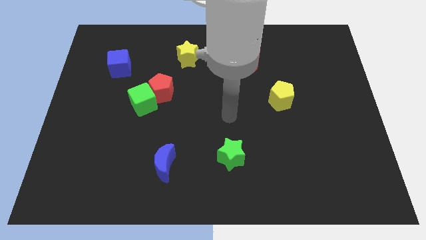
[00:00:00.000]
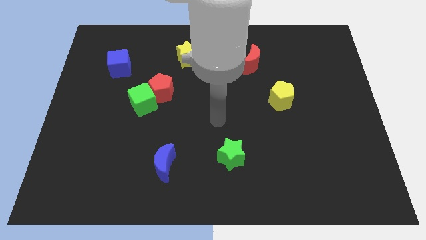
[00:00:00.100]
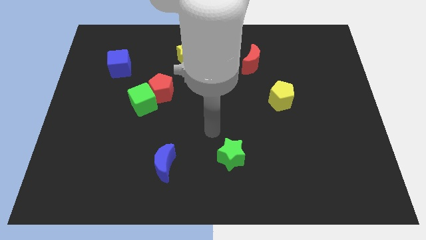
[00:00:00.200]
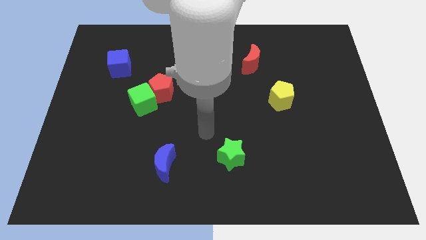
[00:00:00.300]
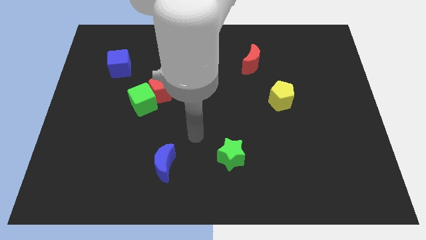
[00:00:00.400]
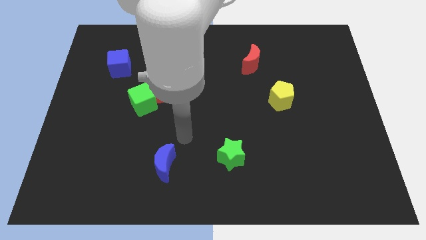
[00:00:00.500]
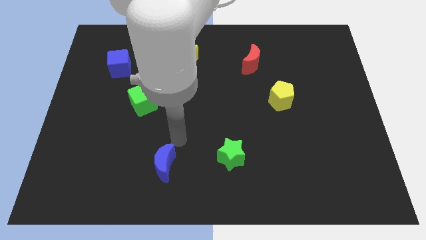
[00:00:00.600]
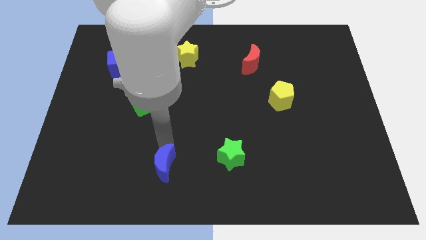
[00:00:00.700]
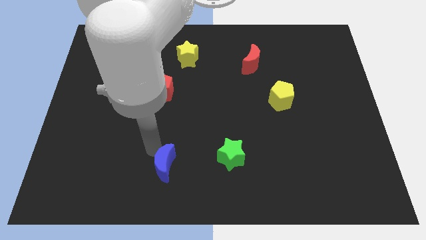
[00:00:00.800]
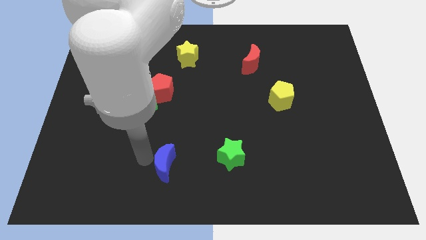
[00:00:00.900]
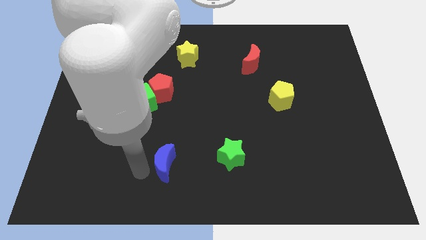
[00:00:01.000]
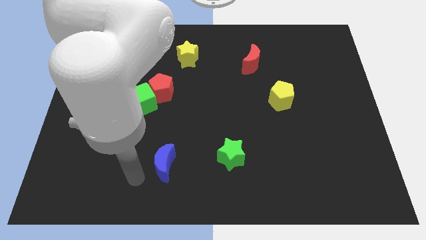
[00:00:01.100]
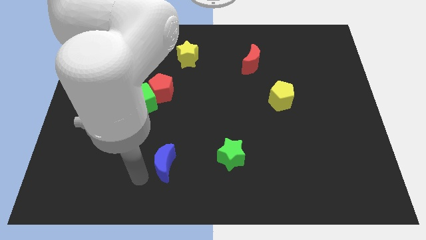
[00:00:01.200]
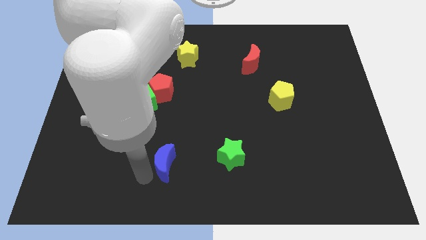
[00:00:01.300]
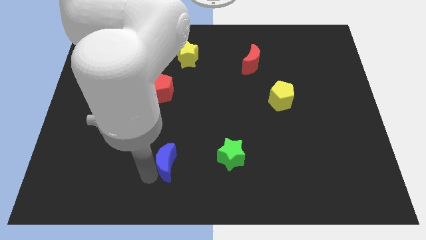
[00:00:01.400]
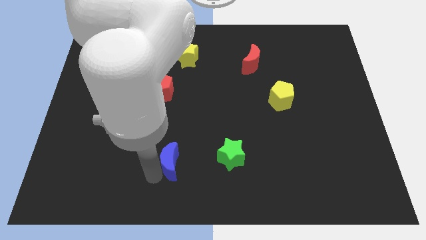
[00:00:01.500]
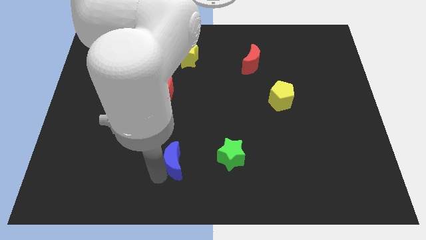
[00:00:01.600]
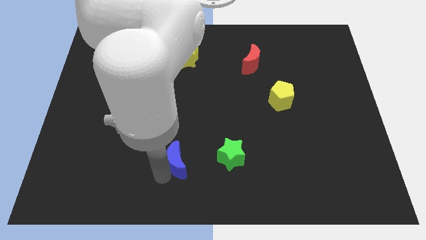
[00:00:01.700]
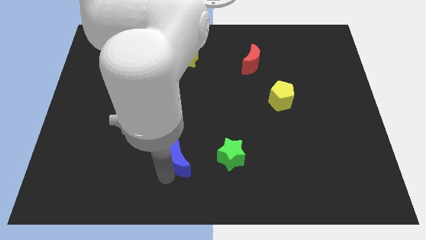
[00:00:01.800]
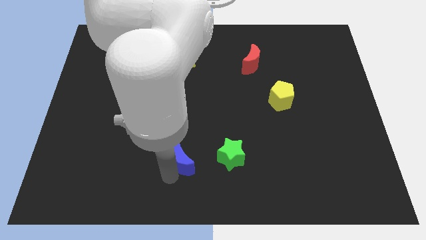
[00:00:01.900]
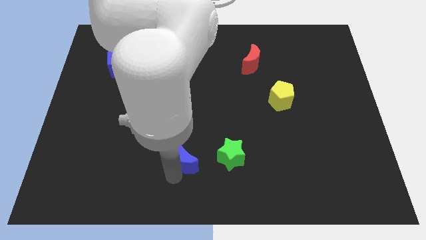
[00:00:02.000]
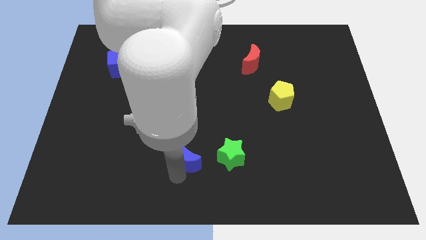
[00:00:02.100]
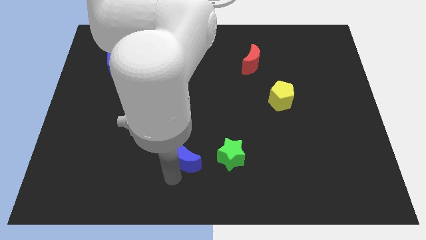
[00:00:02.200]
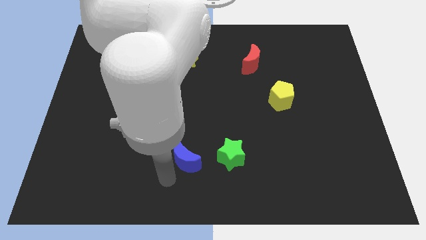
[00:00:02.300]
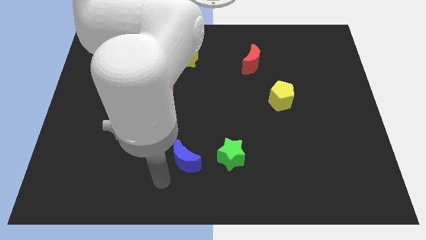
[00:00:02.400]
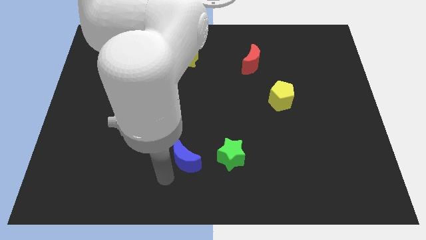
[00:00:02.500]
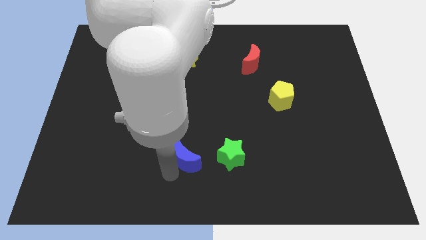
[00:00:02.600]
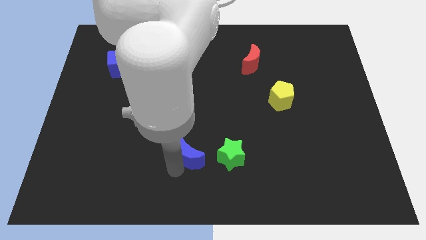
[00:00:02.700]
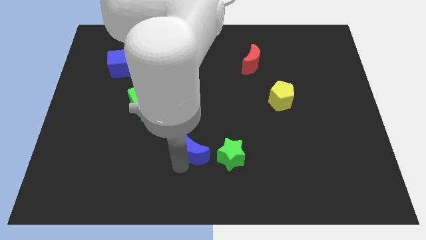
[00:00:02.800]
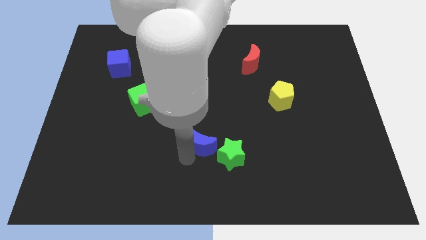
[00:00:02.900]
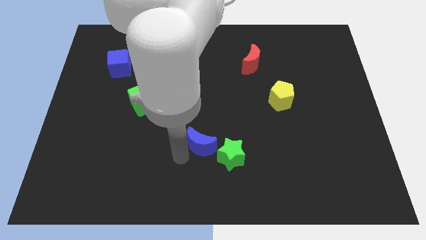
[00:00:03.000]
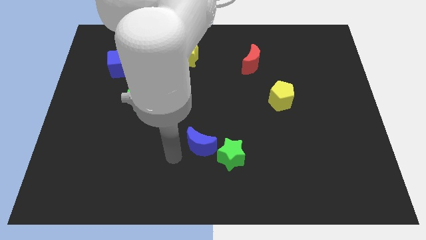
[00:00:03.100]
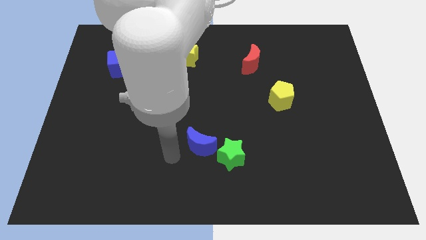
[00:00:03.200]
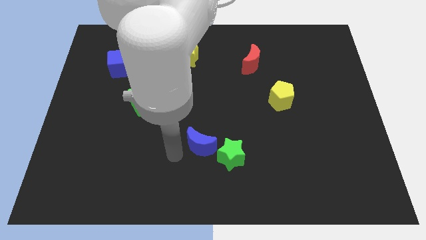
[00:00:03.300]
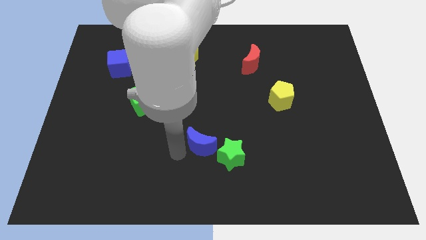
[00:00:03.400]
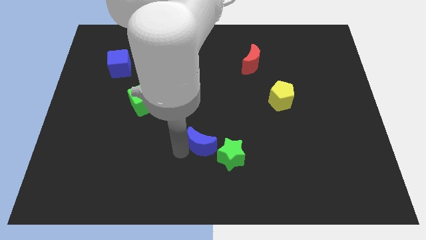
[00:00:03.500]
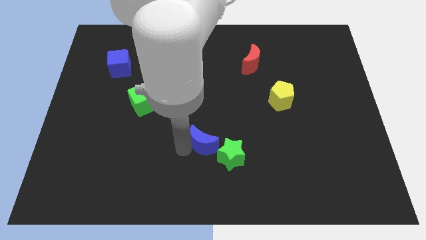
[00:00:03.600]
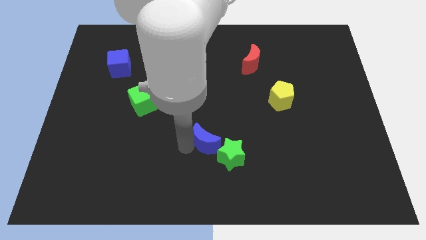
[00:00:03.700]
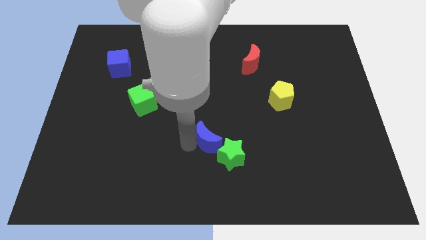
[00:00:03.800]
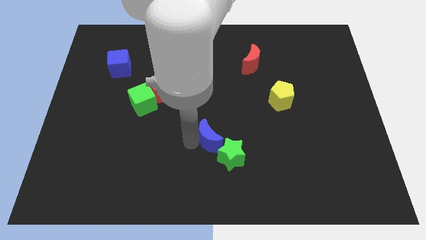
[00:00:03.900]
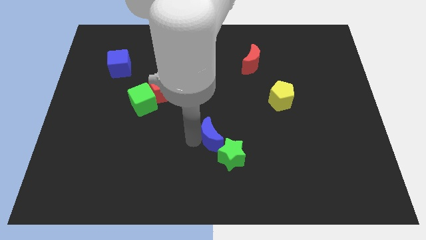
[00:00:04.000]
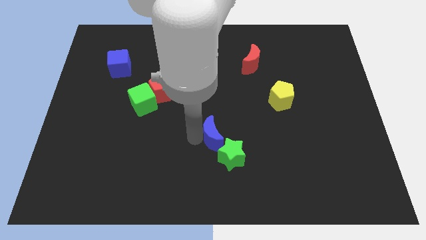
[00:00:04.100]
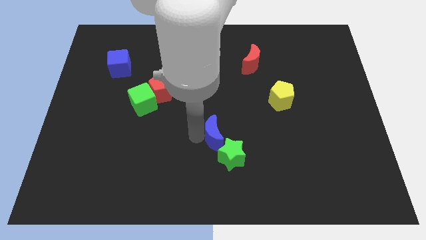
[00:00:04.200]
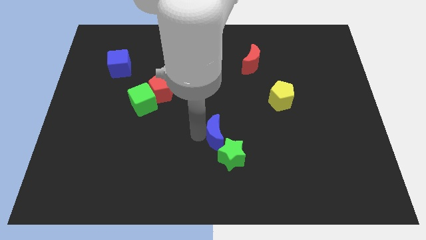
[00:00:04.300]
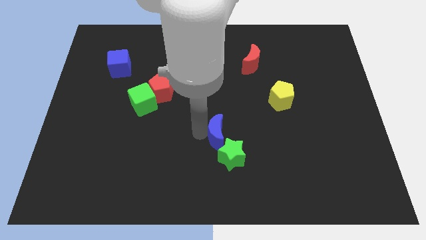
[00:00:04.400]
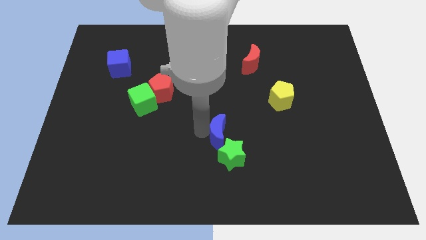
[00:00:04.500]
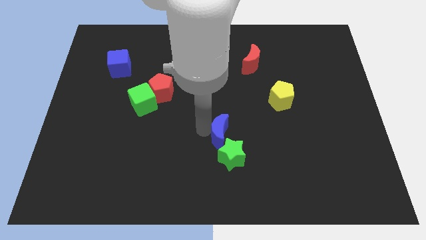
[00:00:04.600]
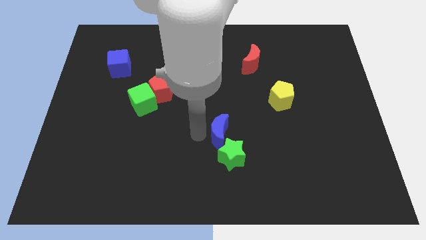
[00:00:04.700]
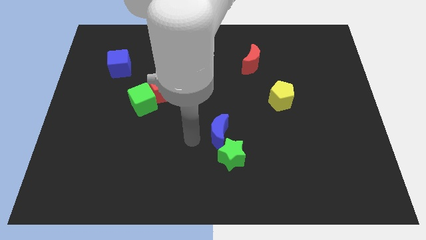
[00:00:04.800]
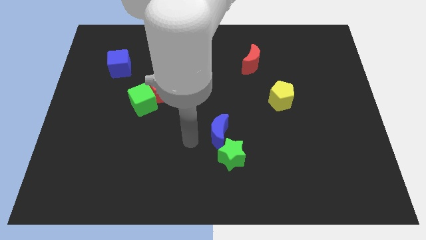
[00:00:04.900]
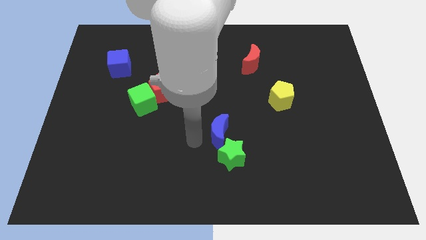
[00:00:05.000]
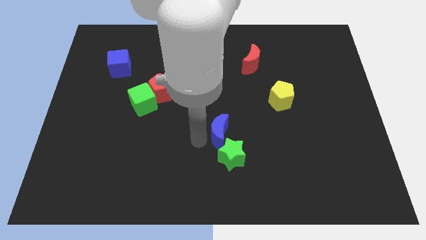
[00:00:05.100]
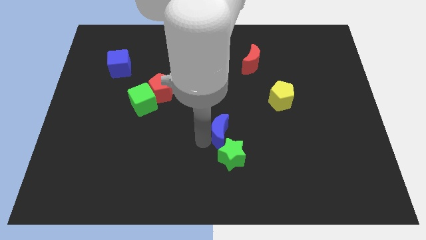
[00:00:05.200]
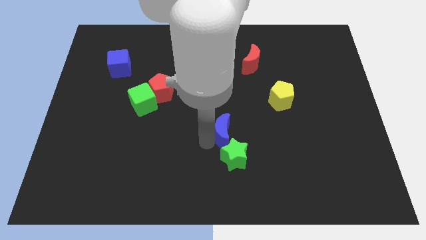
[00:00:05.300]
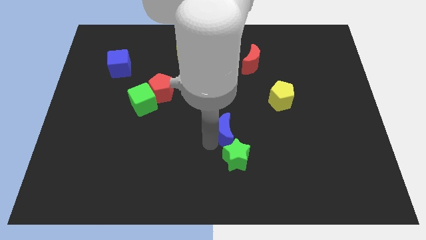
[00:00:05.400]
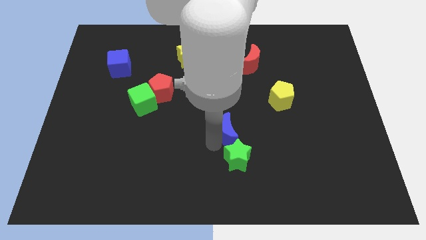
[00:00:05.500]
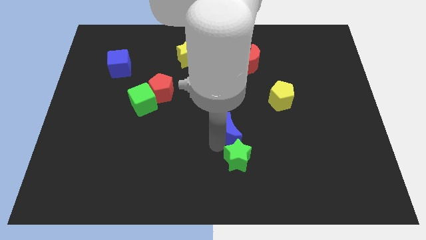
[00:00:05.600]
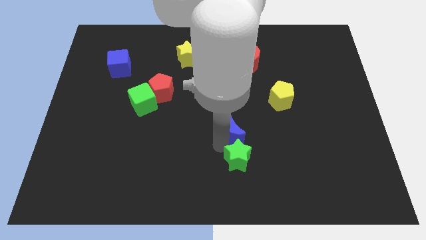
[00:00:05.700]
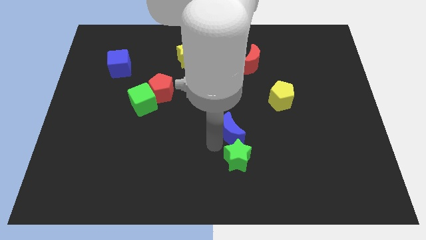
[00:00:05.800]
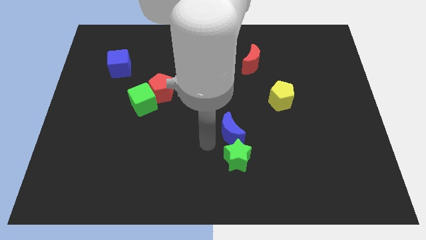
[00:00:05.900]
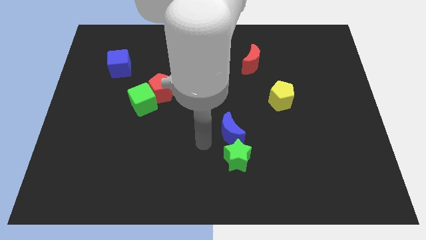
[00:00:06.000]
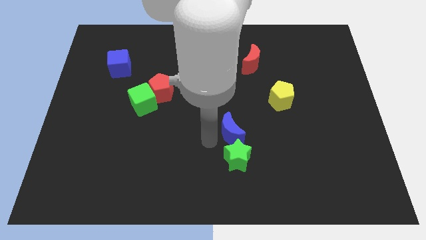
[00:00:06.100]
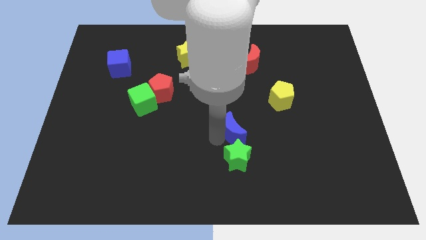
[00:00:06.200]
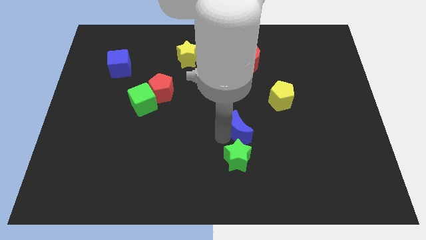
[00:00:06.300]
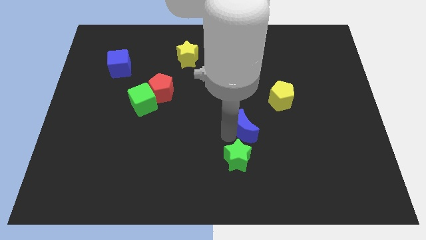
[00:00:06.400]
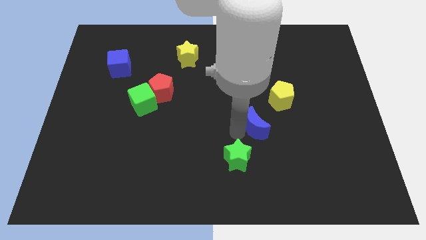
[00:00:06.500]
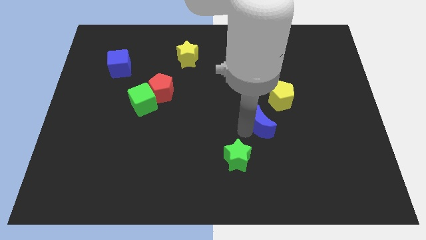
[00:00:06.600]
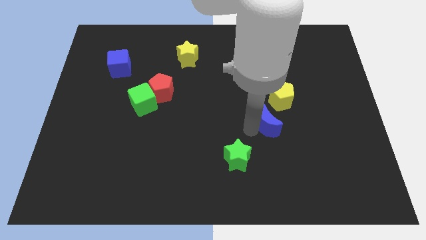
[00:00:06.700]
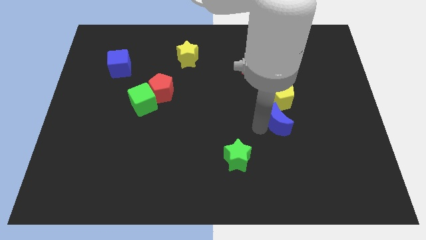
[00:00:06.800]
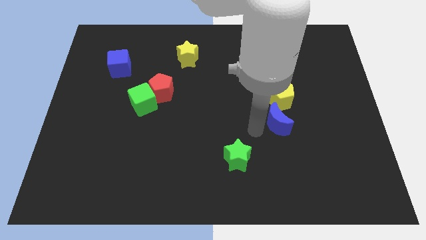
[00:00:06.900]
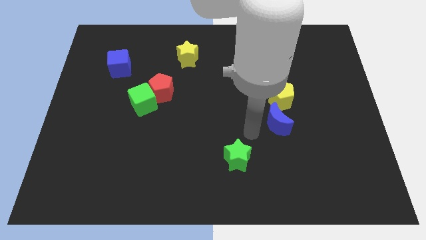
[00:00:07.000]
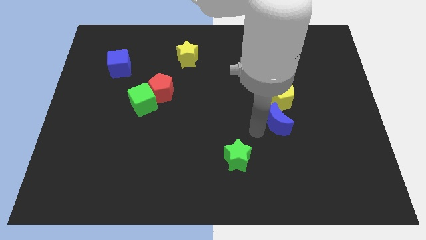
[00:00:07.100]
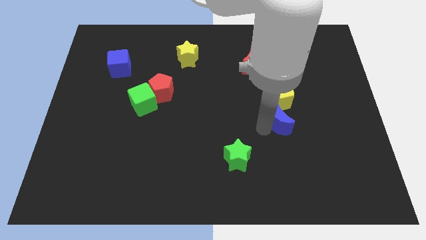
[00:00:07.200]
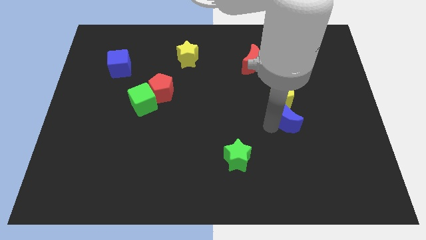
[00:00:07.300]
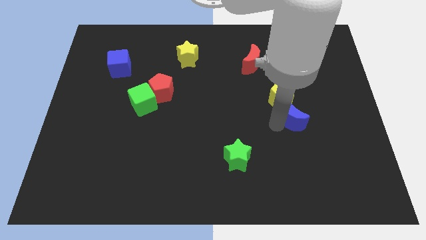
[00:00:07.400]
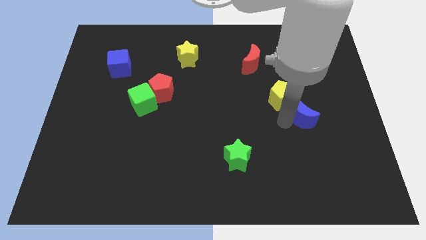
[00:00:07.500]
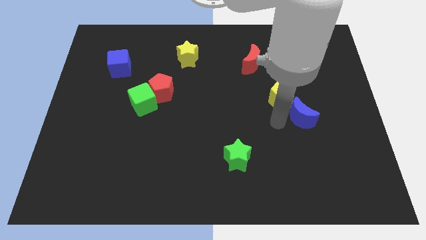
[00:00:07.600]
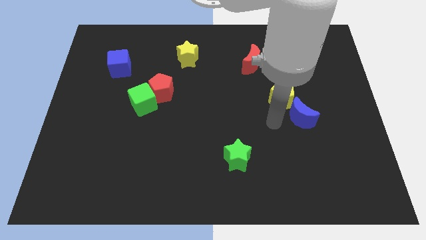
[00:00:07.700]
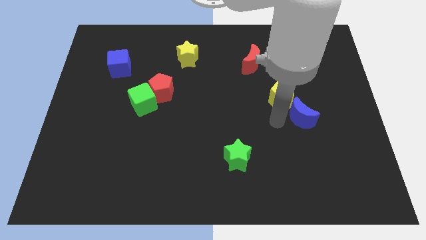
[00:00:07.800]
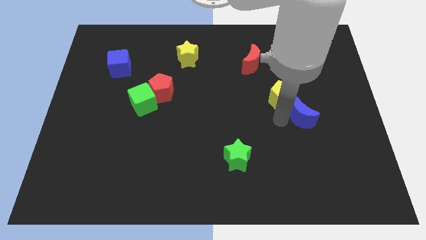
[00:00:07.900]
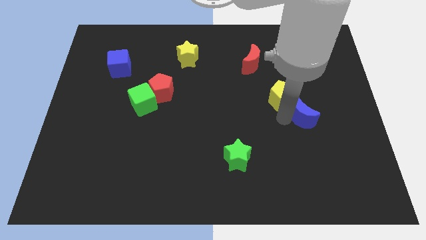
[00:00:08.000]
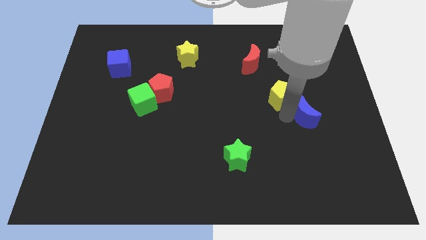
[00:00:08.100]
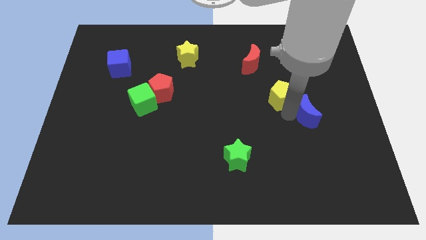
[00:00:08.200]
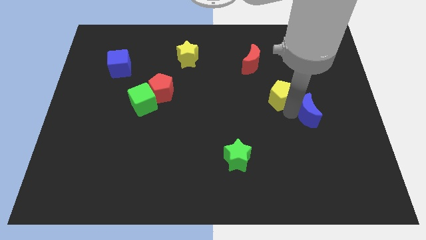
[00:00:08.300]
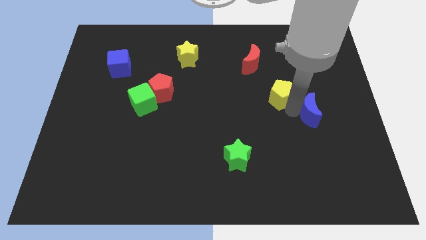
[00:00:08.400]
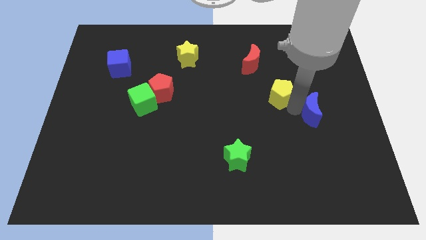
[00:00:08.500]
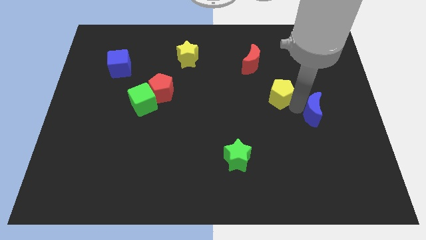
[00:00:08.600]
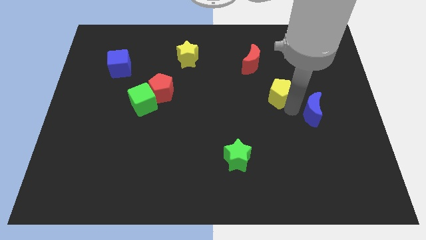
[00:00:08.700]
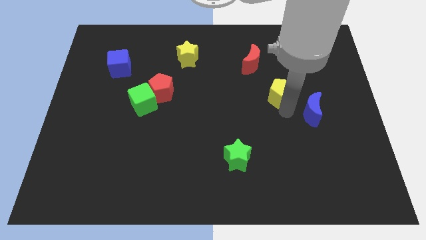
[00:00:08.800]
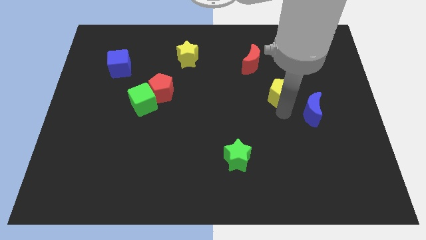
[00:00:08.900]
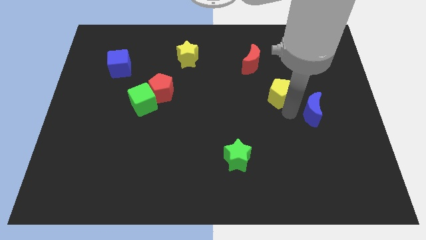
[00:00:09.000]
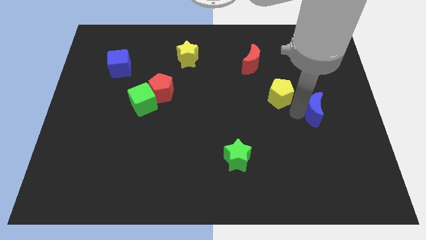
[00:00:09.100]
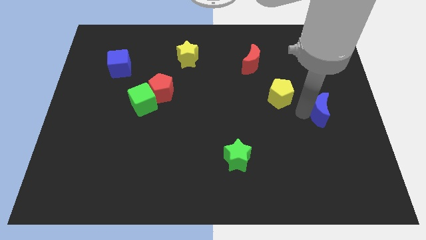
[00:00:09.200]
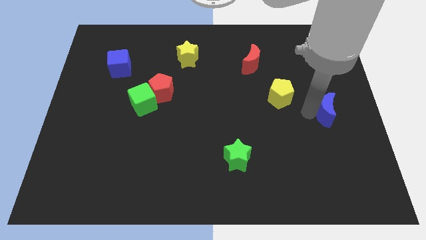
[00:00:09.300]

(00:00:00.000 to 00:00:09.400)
move the blue moon to the right side
